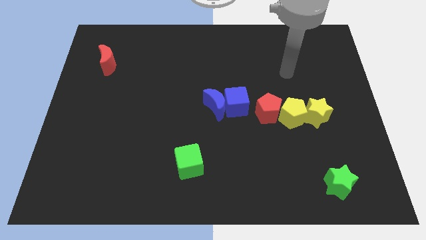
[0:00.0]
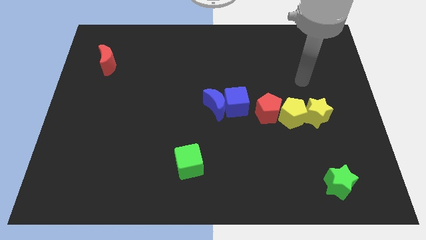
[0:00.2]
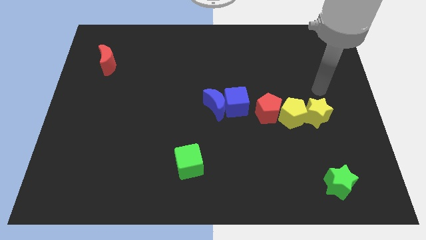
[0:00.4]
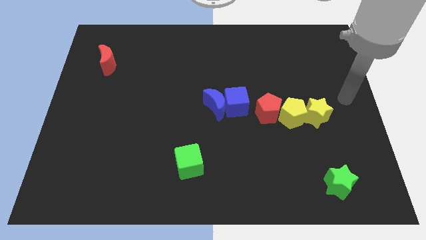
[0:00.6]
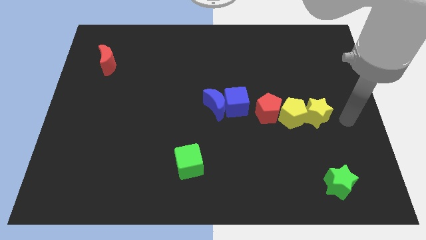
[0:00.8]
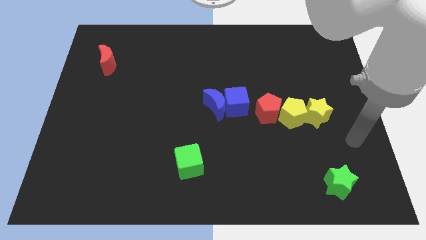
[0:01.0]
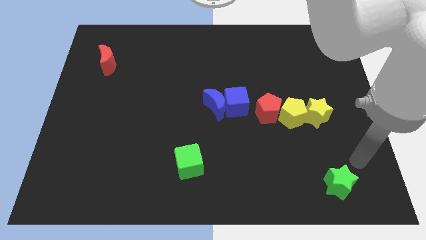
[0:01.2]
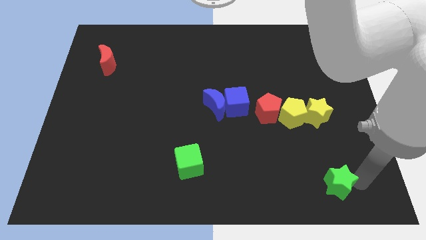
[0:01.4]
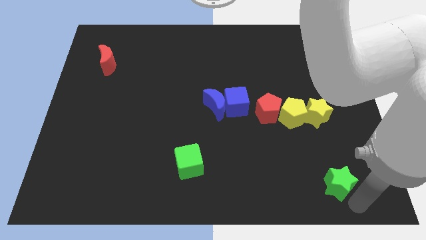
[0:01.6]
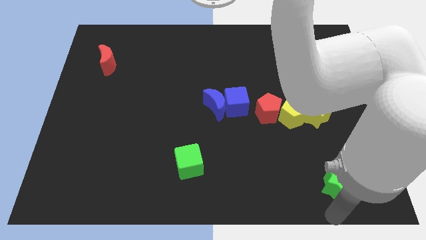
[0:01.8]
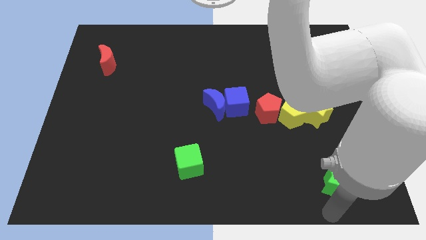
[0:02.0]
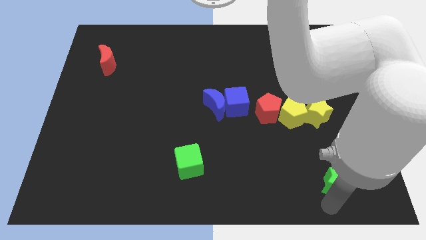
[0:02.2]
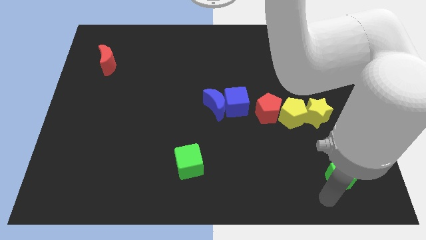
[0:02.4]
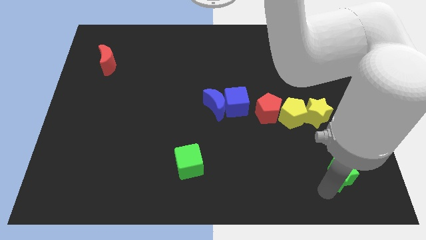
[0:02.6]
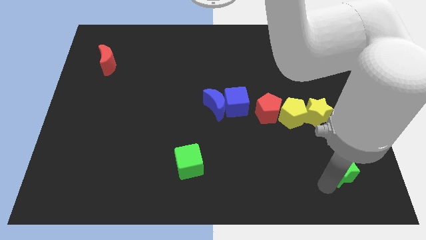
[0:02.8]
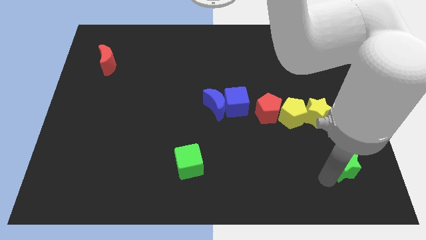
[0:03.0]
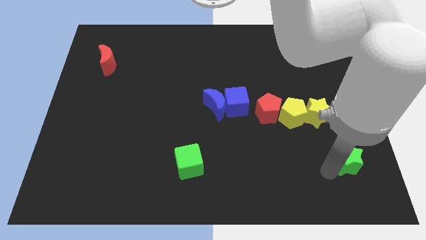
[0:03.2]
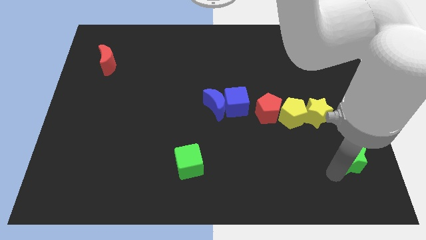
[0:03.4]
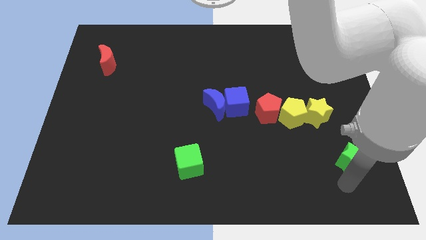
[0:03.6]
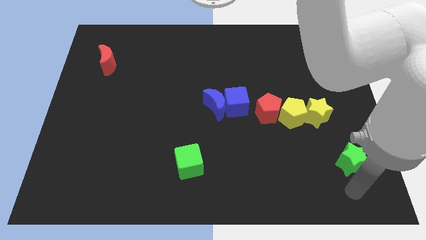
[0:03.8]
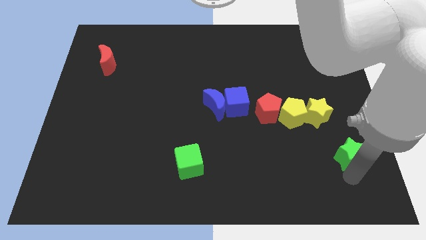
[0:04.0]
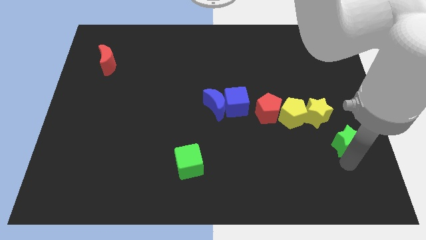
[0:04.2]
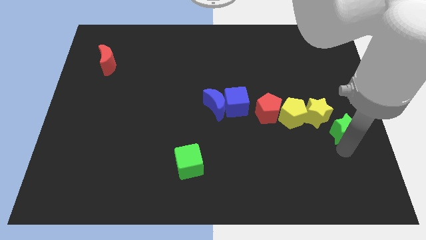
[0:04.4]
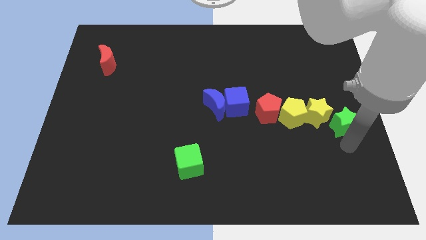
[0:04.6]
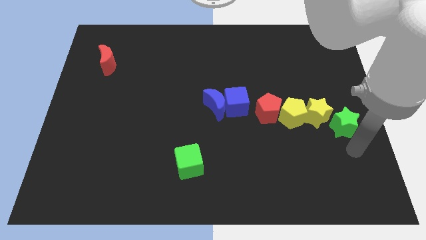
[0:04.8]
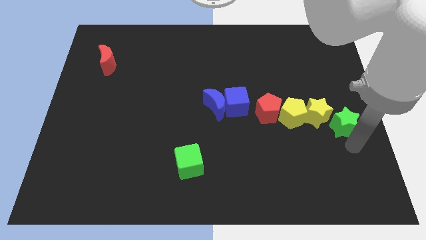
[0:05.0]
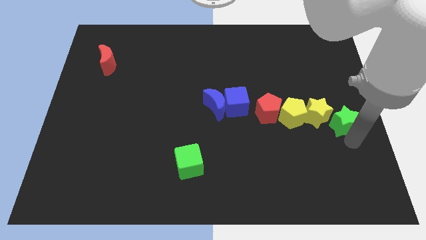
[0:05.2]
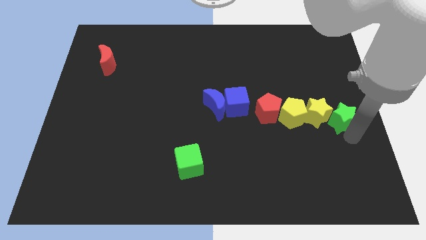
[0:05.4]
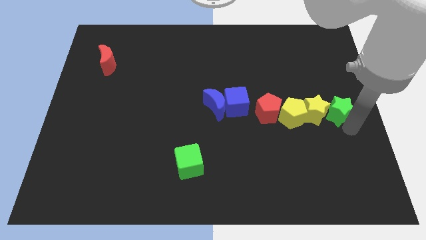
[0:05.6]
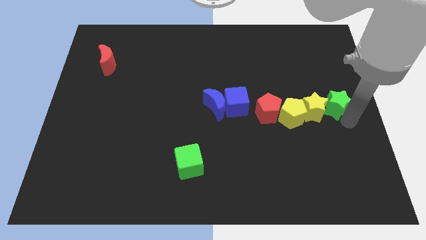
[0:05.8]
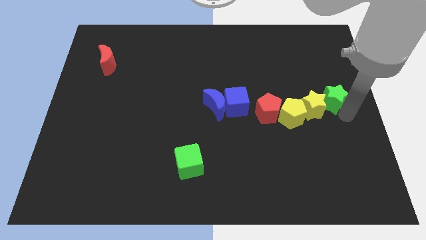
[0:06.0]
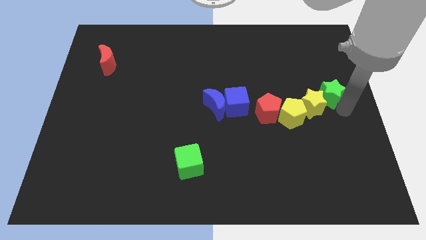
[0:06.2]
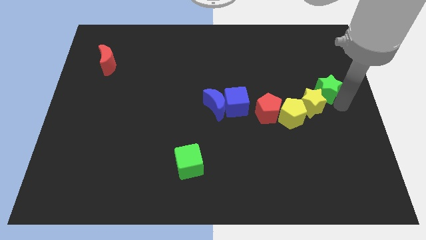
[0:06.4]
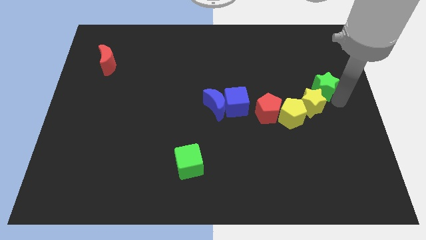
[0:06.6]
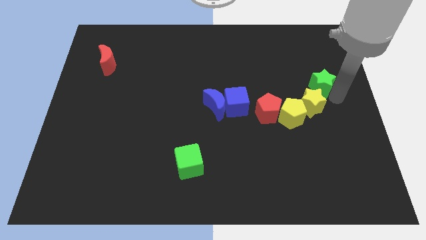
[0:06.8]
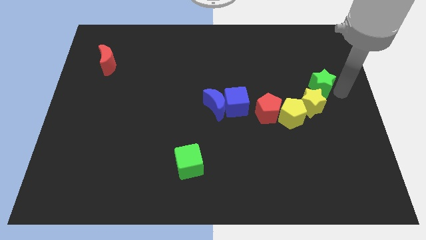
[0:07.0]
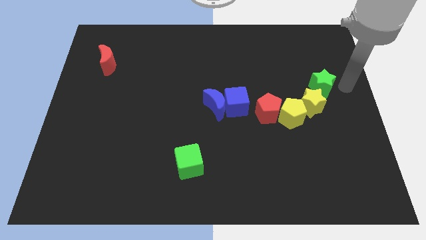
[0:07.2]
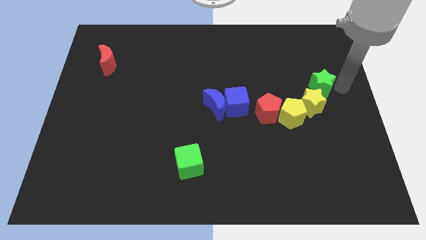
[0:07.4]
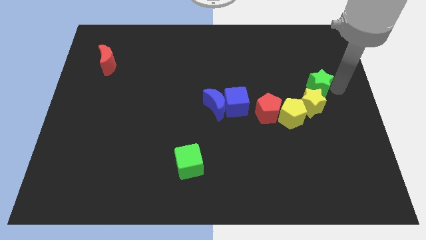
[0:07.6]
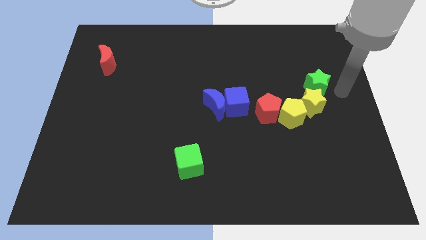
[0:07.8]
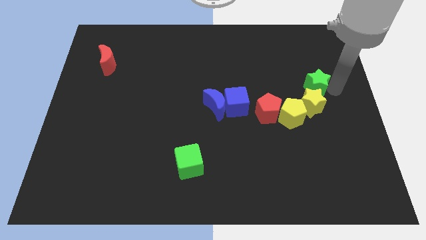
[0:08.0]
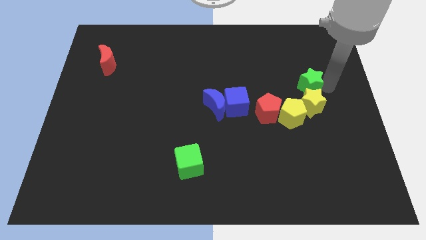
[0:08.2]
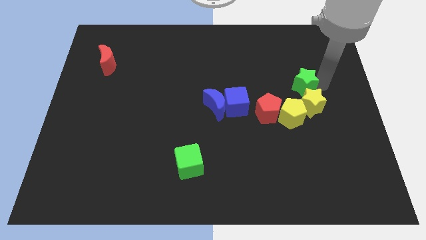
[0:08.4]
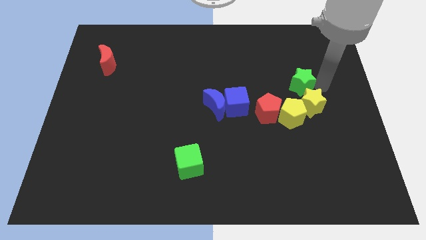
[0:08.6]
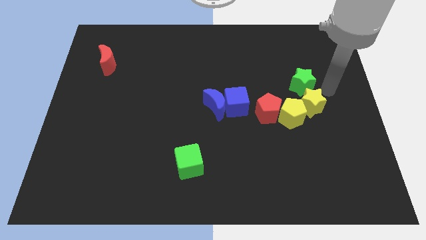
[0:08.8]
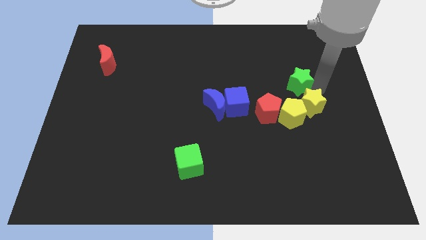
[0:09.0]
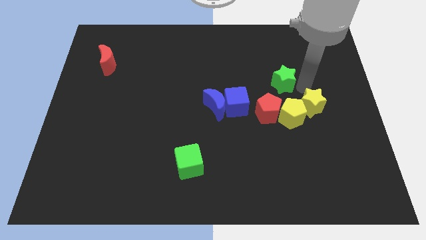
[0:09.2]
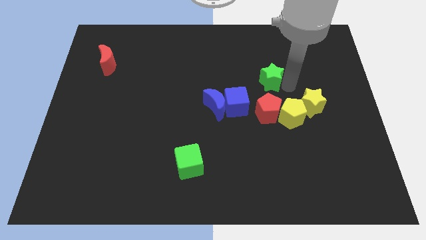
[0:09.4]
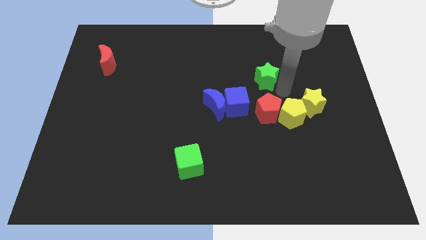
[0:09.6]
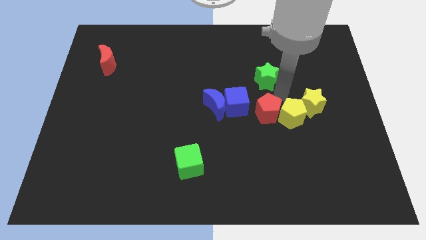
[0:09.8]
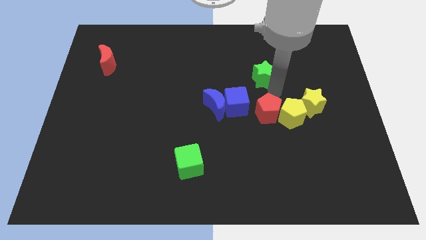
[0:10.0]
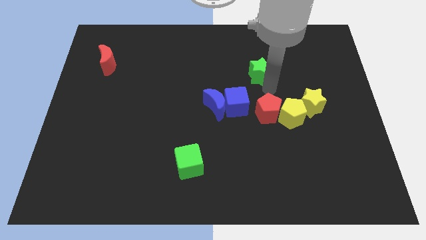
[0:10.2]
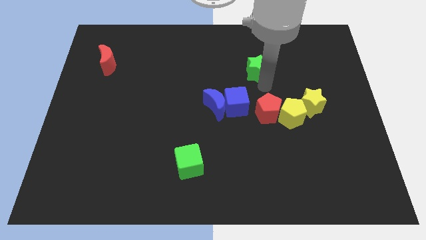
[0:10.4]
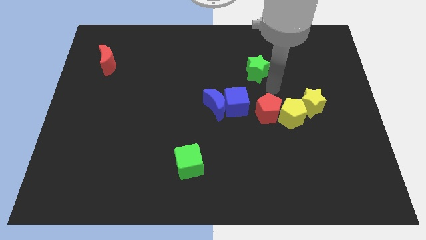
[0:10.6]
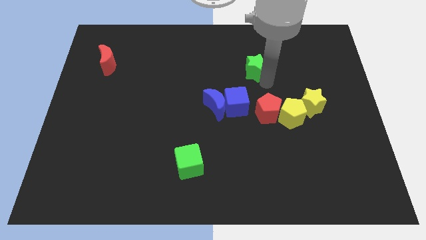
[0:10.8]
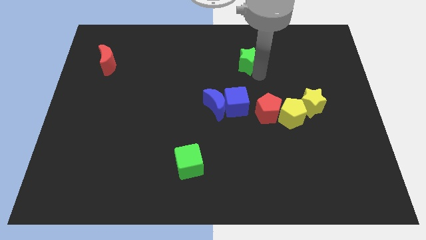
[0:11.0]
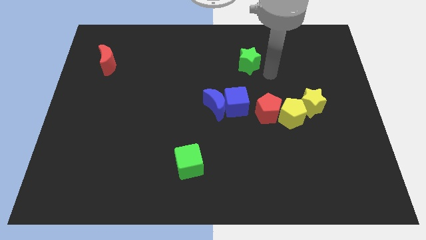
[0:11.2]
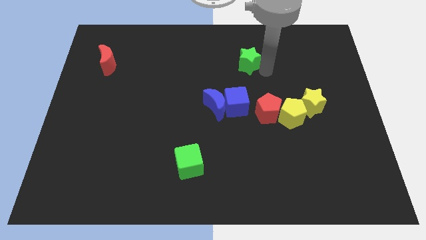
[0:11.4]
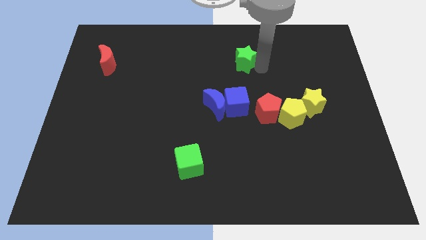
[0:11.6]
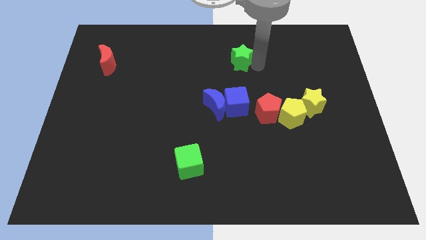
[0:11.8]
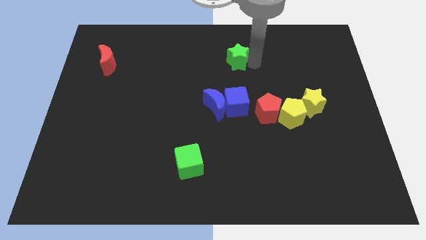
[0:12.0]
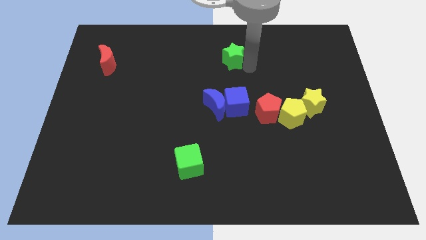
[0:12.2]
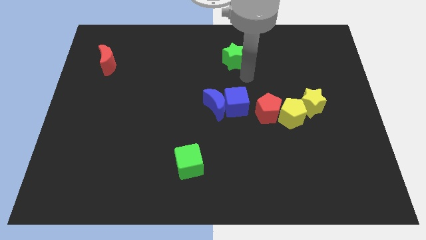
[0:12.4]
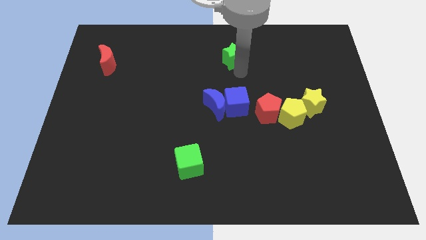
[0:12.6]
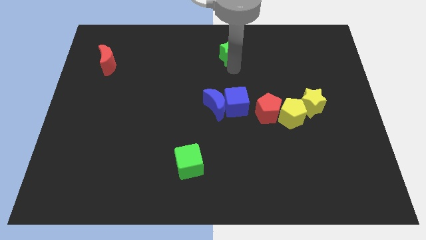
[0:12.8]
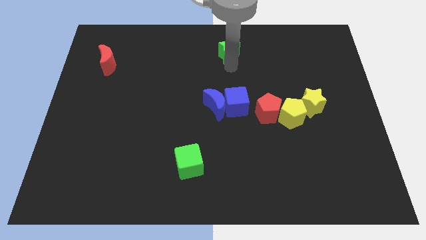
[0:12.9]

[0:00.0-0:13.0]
put the green star to the top side
